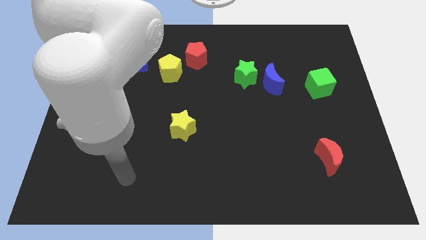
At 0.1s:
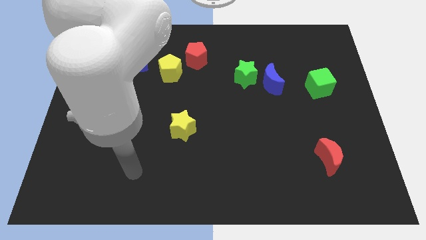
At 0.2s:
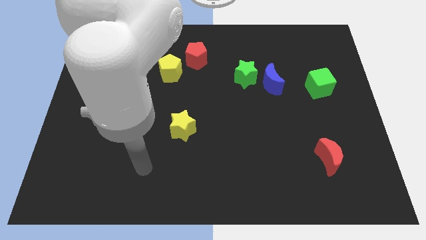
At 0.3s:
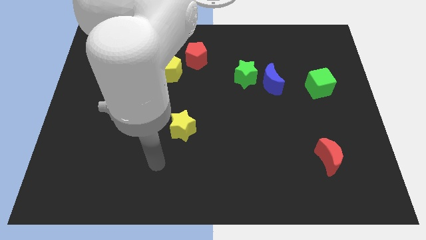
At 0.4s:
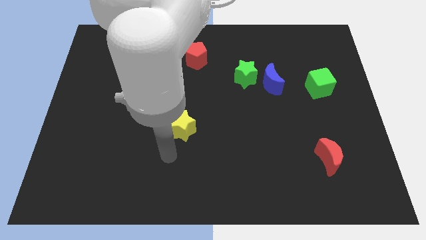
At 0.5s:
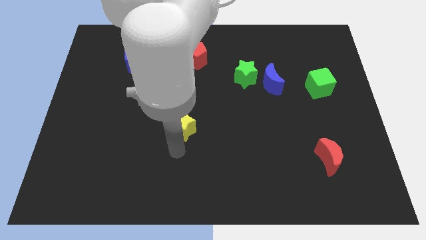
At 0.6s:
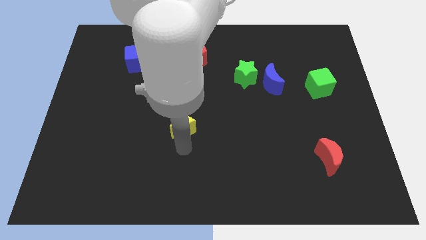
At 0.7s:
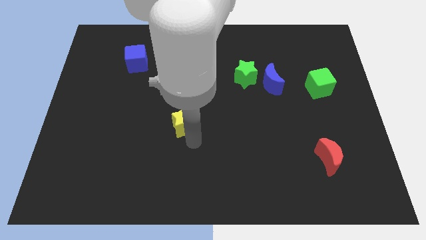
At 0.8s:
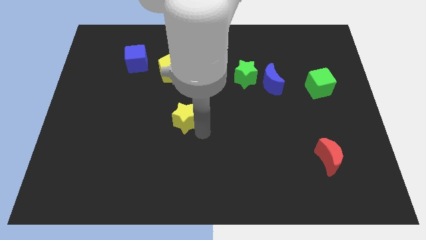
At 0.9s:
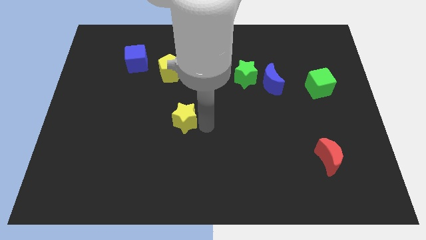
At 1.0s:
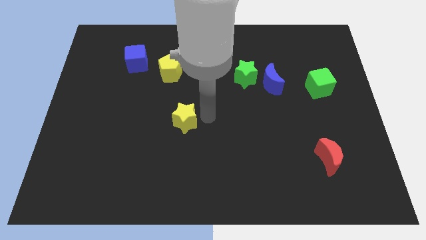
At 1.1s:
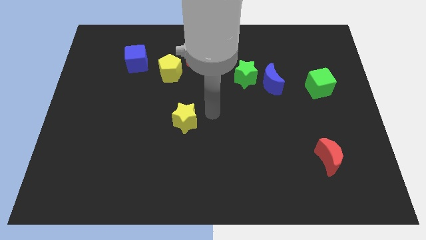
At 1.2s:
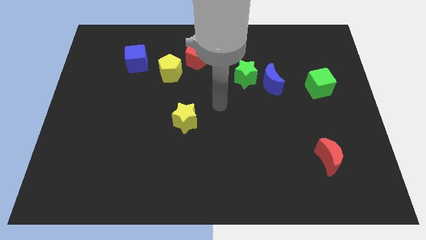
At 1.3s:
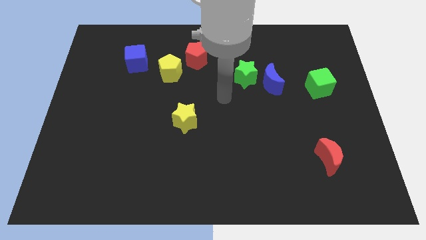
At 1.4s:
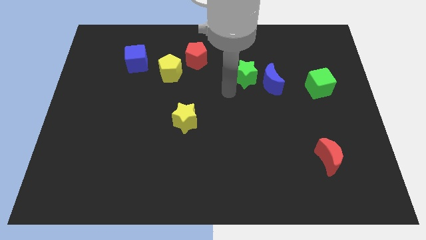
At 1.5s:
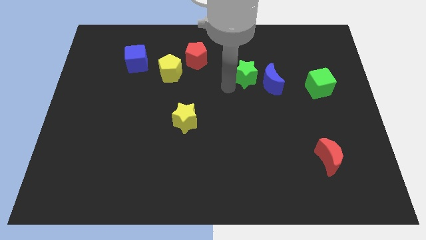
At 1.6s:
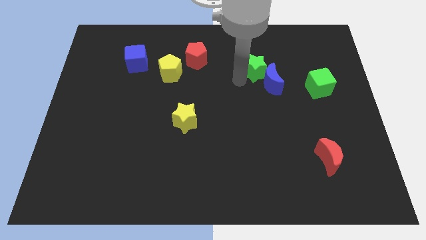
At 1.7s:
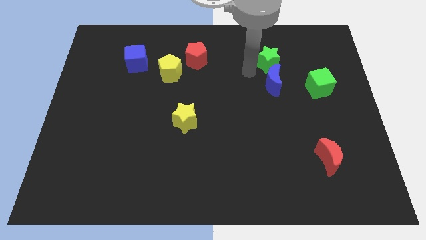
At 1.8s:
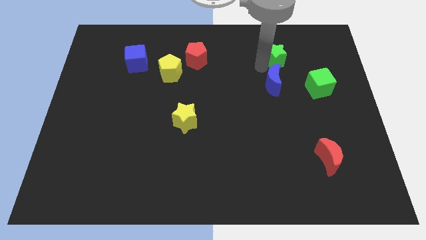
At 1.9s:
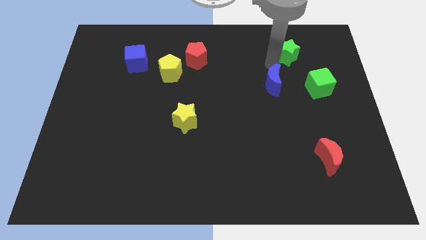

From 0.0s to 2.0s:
pull the blue moon apart from the green star

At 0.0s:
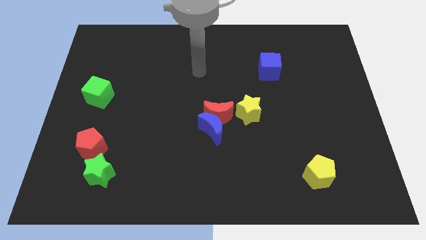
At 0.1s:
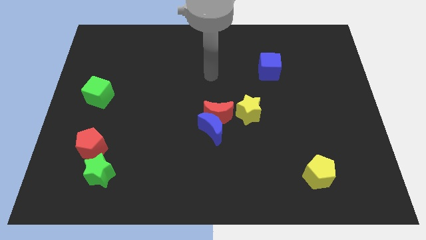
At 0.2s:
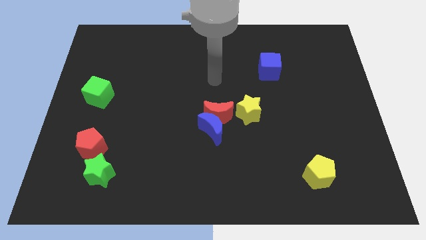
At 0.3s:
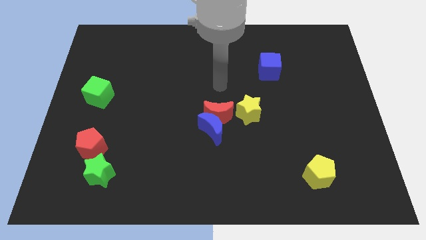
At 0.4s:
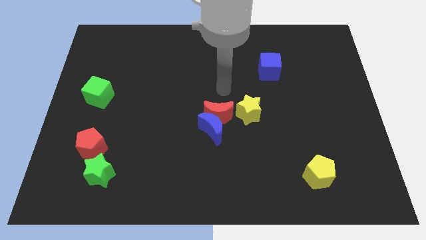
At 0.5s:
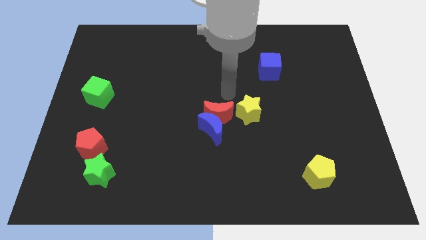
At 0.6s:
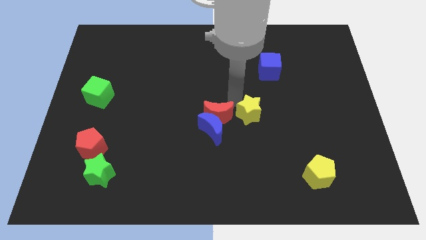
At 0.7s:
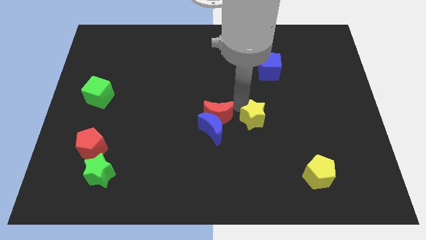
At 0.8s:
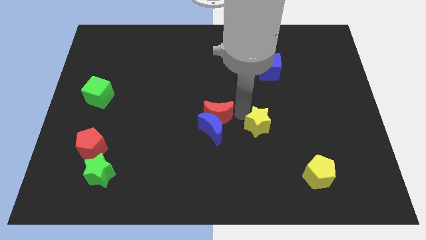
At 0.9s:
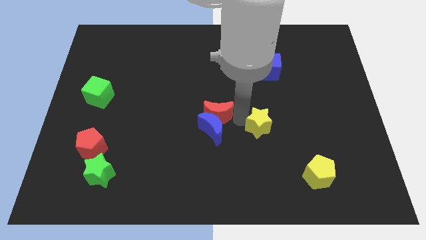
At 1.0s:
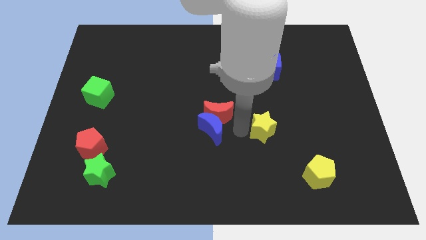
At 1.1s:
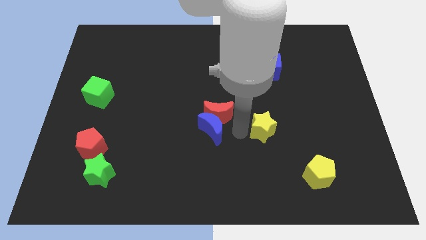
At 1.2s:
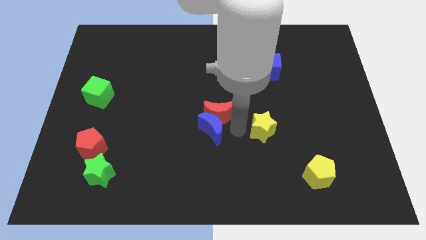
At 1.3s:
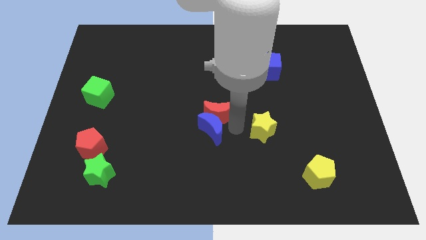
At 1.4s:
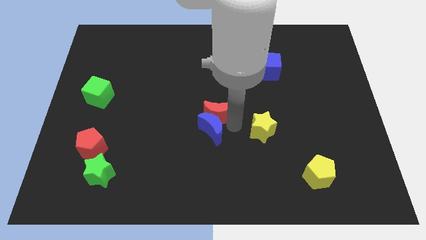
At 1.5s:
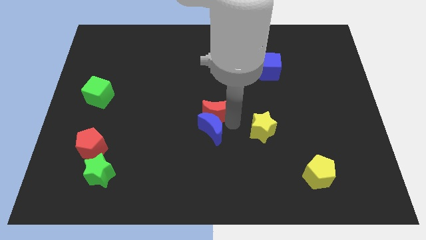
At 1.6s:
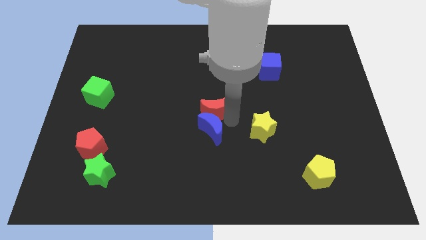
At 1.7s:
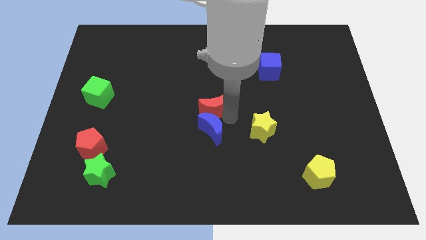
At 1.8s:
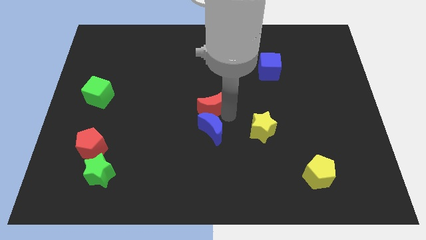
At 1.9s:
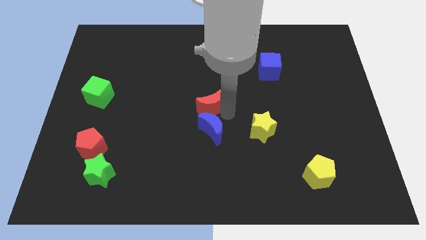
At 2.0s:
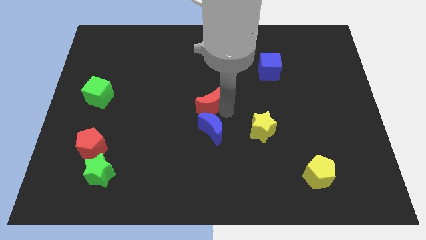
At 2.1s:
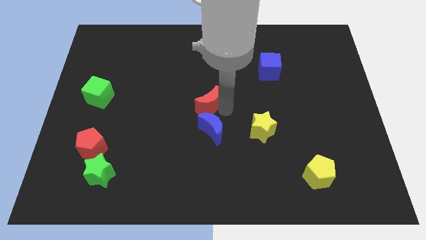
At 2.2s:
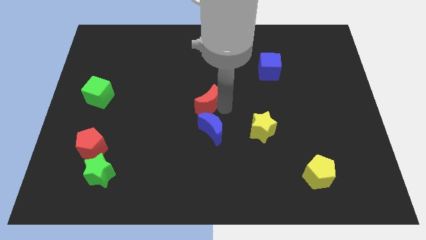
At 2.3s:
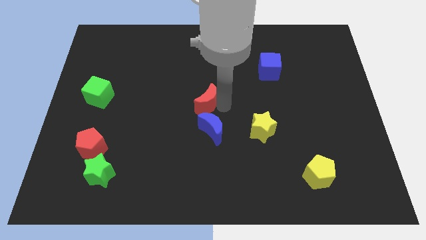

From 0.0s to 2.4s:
separate the red moon from the blue moon and yellow star

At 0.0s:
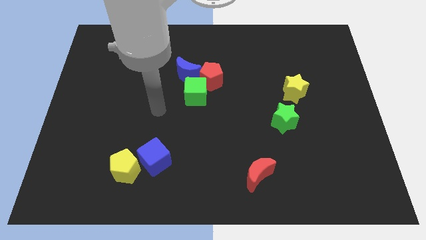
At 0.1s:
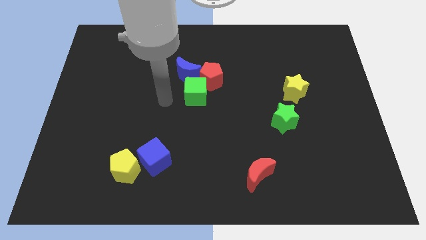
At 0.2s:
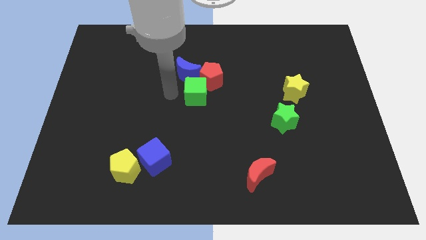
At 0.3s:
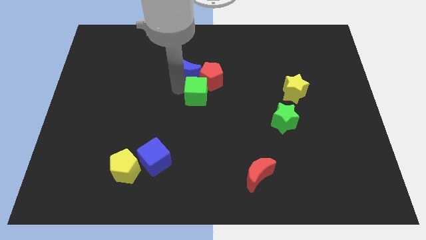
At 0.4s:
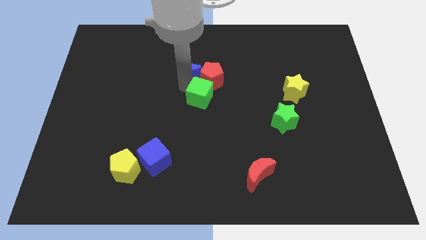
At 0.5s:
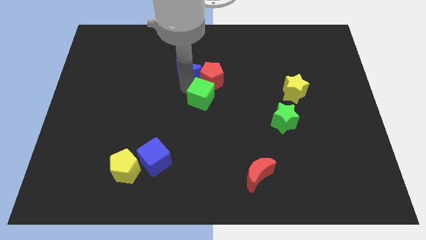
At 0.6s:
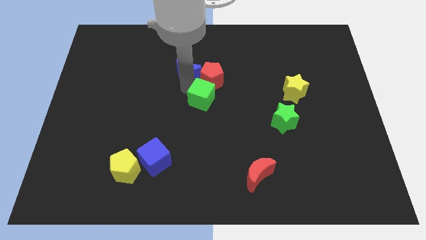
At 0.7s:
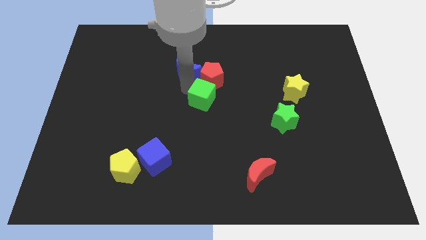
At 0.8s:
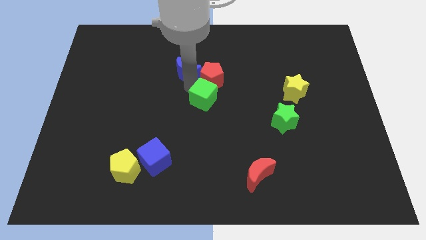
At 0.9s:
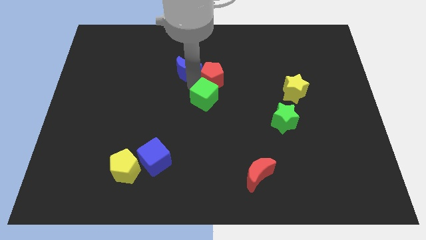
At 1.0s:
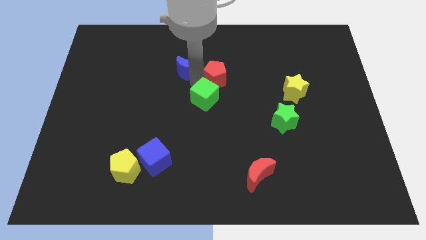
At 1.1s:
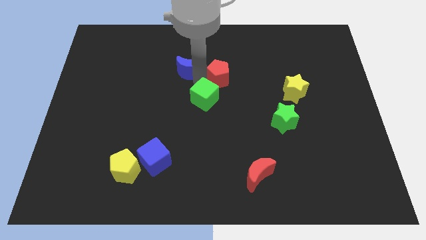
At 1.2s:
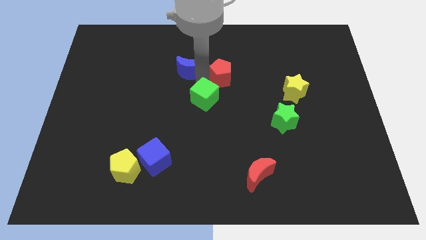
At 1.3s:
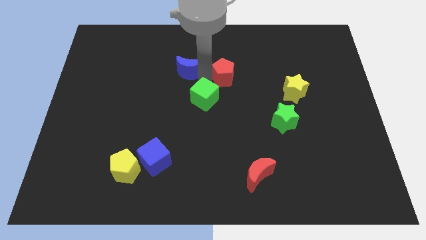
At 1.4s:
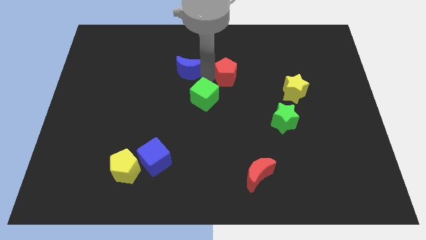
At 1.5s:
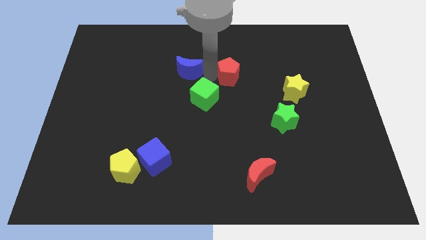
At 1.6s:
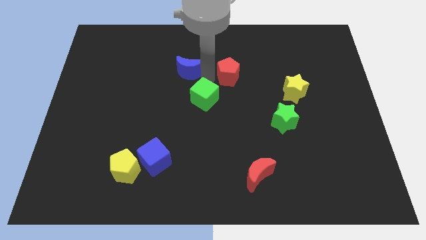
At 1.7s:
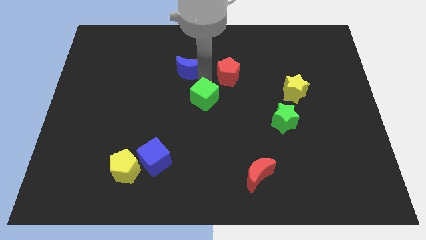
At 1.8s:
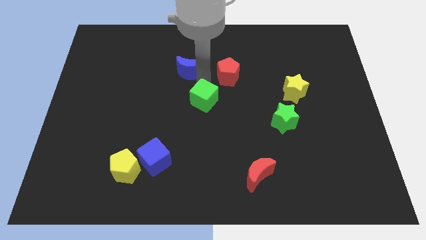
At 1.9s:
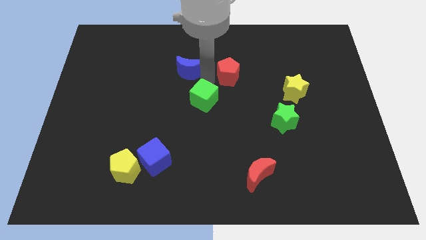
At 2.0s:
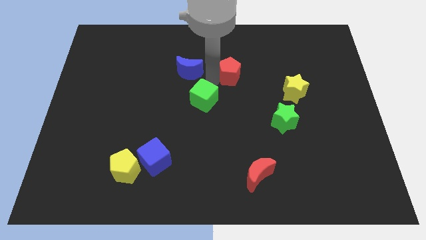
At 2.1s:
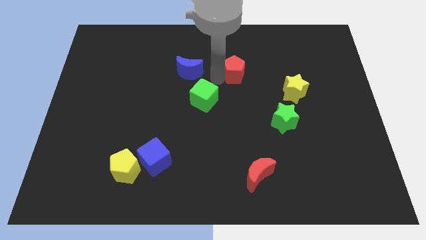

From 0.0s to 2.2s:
pull the red pentagon apart from the green cube and blue moon

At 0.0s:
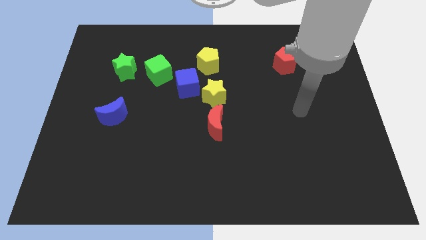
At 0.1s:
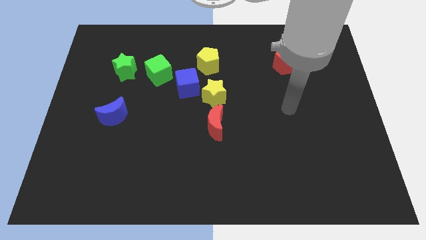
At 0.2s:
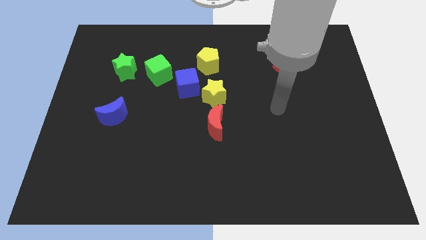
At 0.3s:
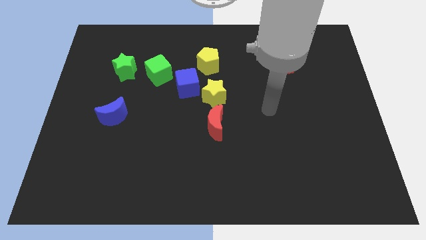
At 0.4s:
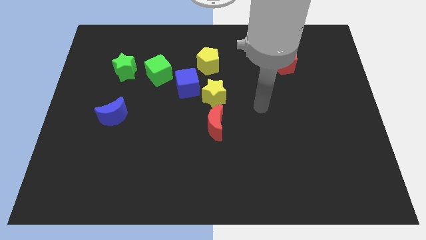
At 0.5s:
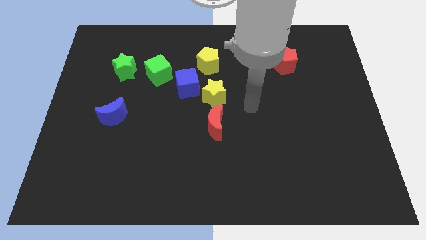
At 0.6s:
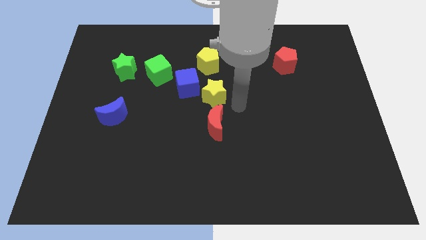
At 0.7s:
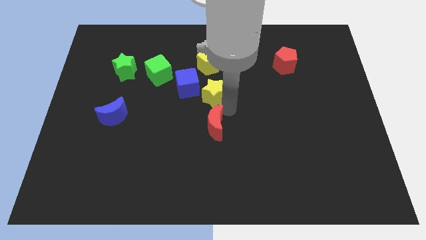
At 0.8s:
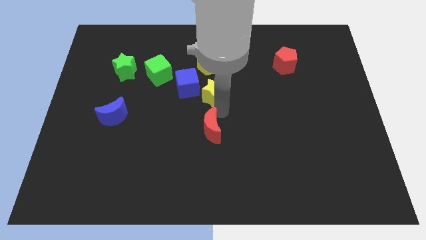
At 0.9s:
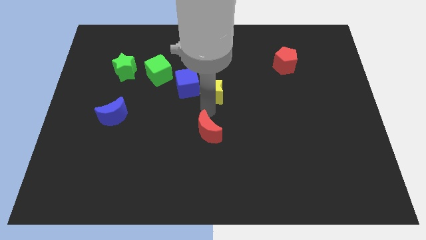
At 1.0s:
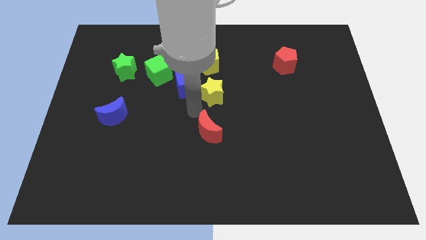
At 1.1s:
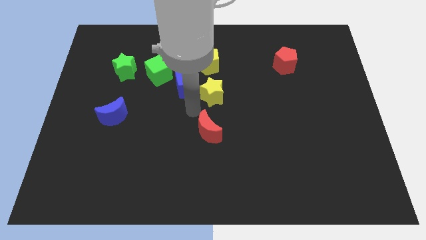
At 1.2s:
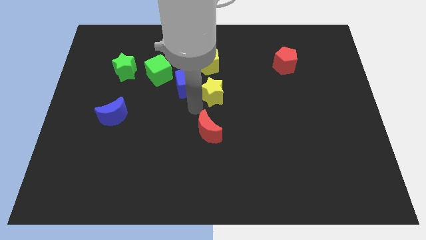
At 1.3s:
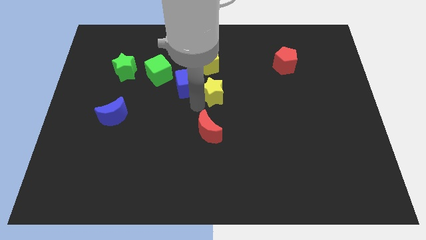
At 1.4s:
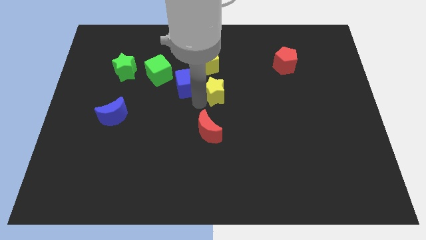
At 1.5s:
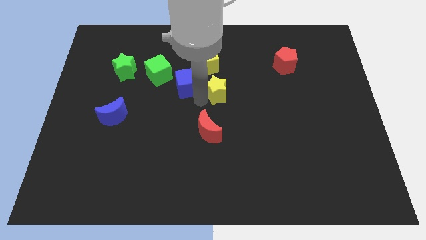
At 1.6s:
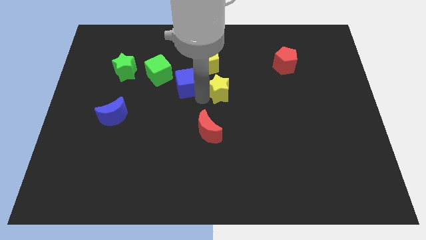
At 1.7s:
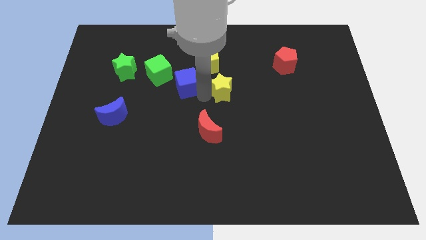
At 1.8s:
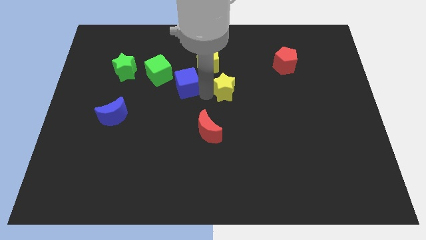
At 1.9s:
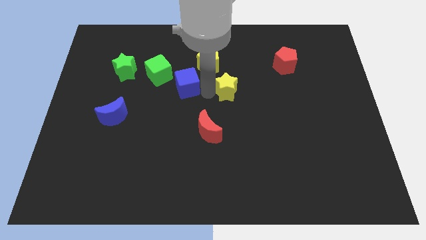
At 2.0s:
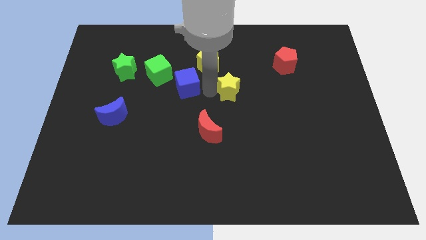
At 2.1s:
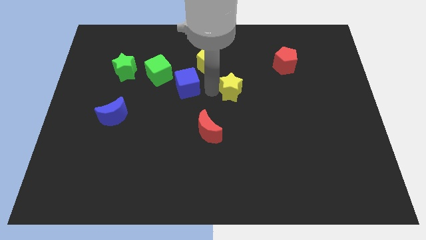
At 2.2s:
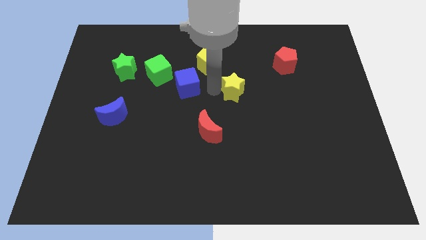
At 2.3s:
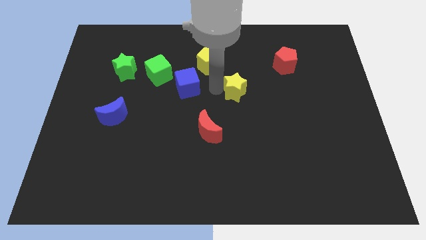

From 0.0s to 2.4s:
pull the yellow star apart from the blue cube and red moon

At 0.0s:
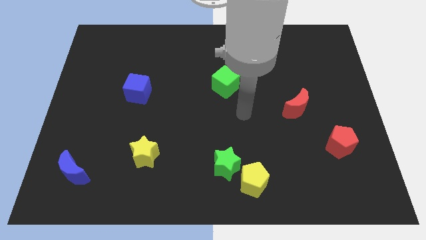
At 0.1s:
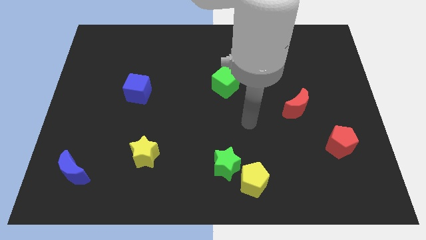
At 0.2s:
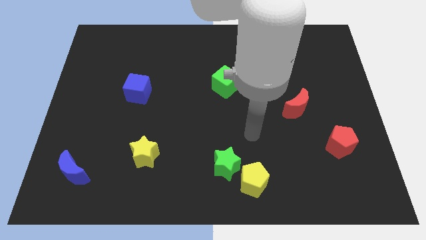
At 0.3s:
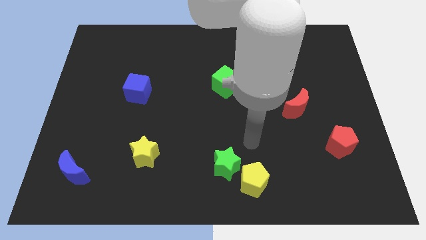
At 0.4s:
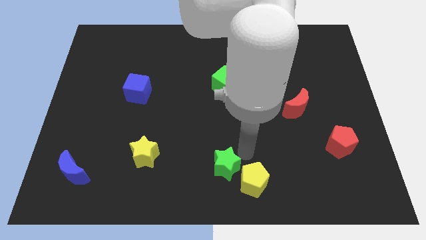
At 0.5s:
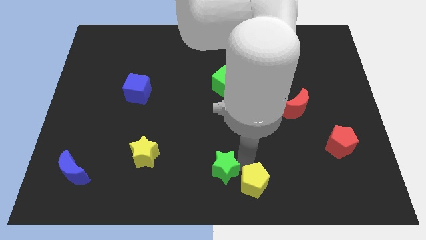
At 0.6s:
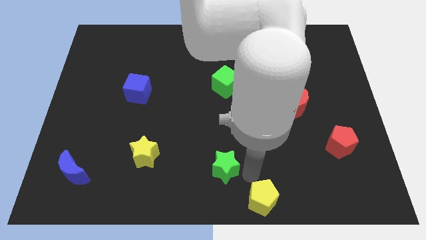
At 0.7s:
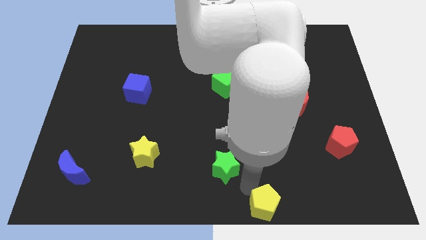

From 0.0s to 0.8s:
separate the green star from the yellow pentagon
